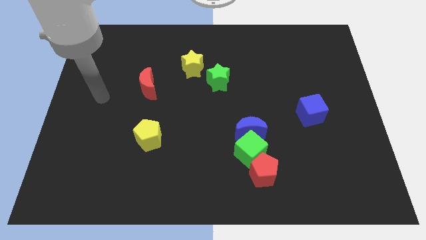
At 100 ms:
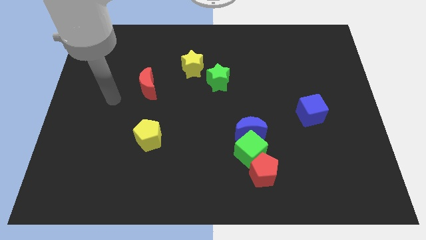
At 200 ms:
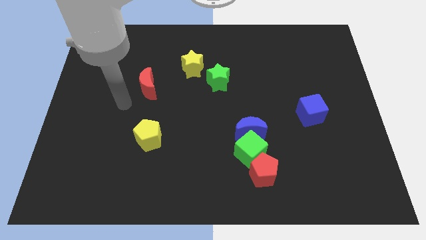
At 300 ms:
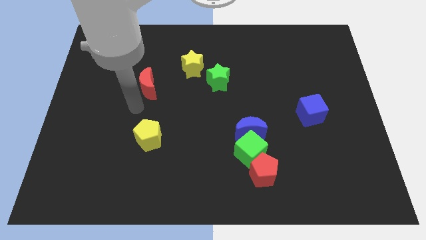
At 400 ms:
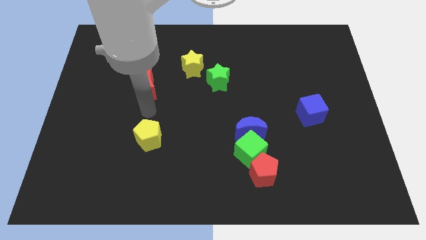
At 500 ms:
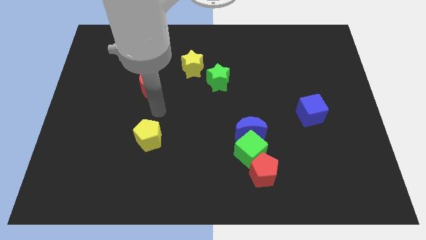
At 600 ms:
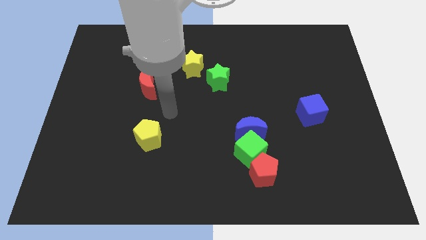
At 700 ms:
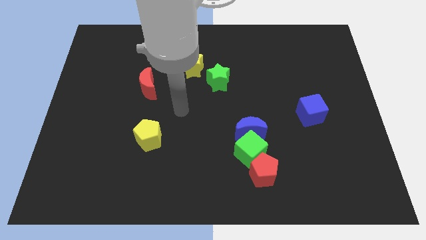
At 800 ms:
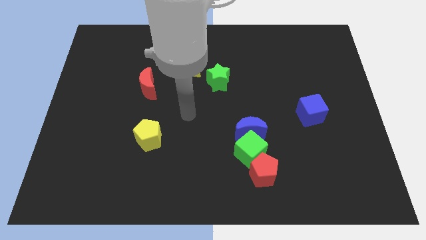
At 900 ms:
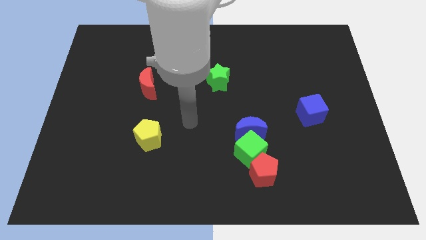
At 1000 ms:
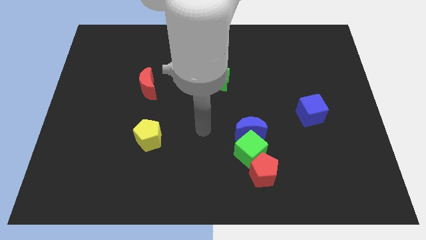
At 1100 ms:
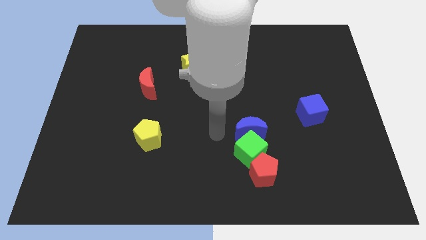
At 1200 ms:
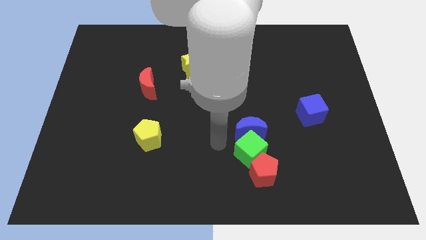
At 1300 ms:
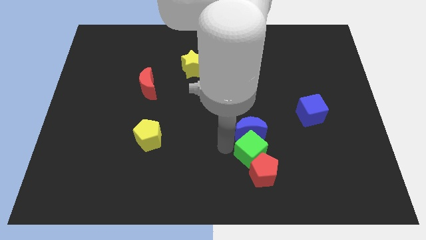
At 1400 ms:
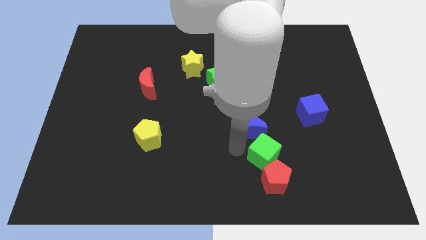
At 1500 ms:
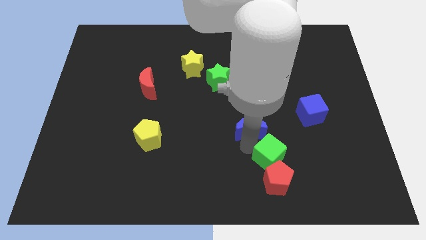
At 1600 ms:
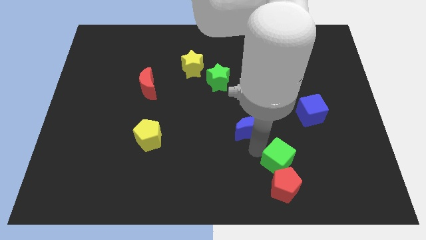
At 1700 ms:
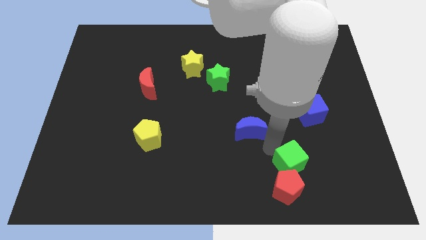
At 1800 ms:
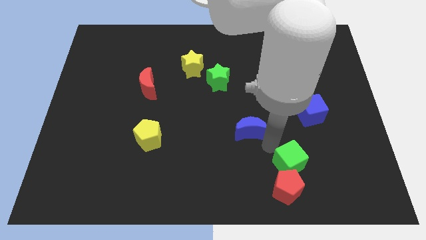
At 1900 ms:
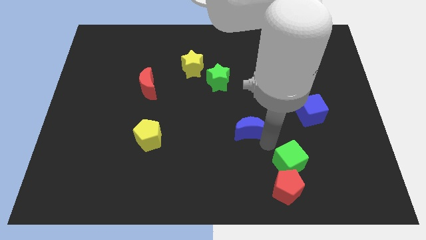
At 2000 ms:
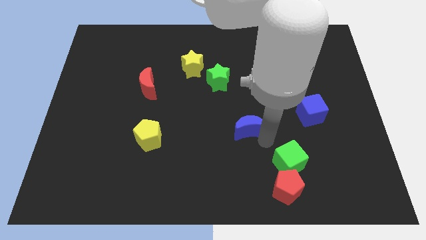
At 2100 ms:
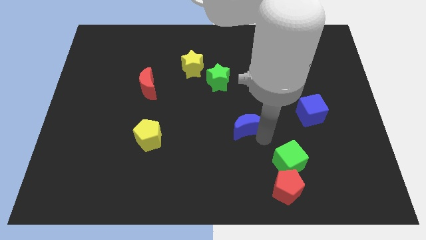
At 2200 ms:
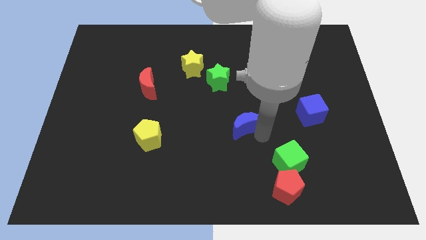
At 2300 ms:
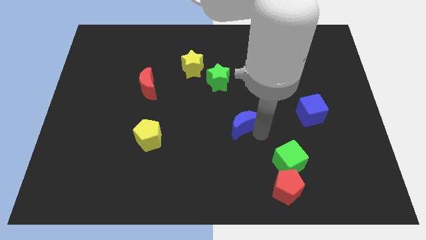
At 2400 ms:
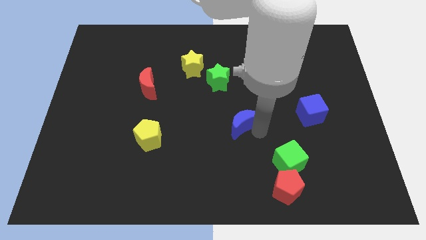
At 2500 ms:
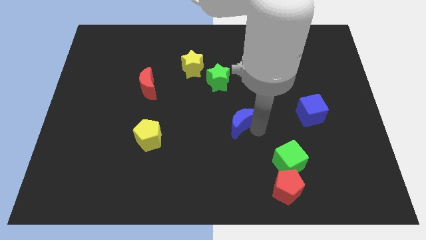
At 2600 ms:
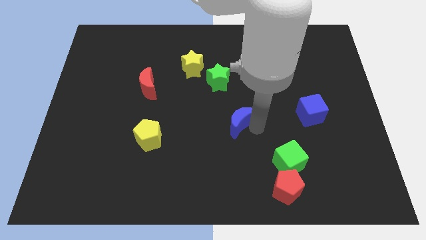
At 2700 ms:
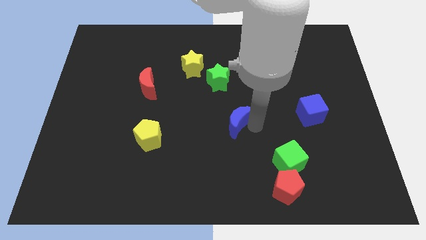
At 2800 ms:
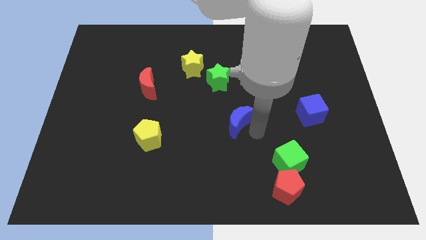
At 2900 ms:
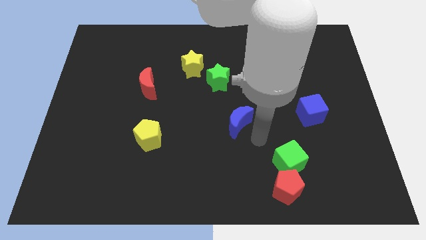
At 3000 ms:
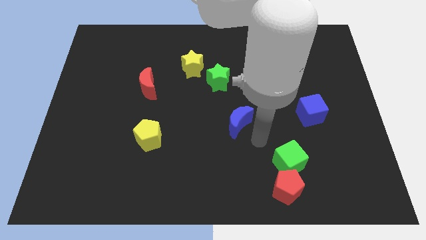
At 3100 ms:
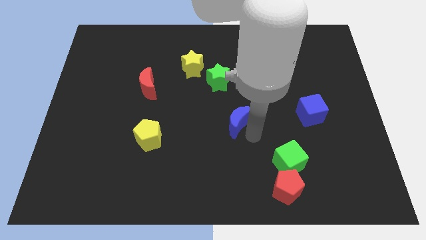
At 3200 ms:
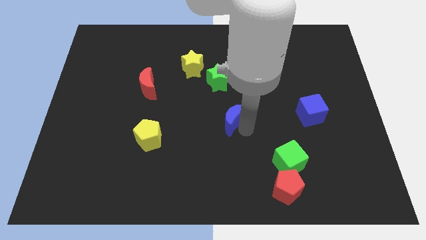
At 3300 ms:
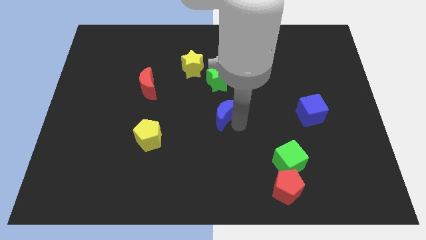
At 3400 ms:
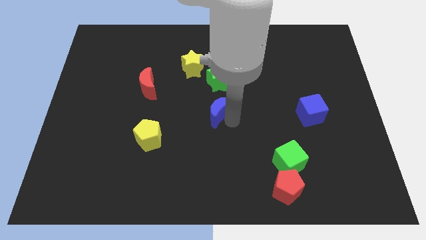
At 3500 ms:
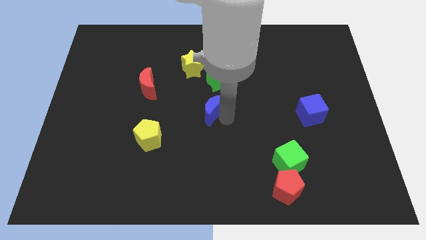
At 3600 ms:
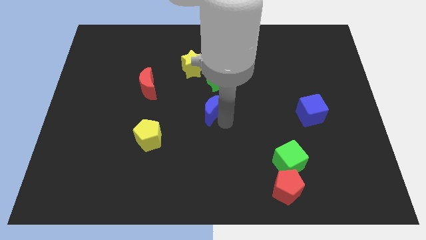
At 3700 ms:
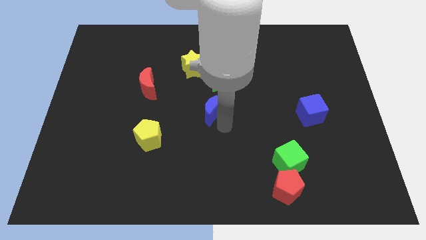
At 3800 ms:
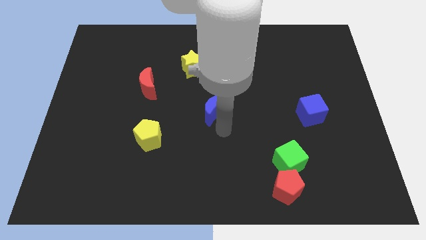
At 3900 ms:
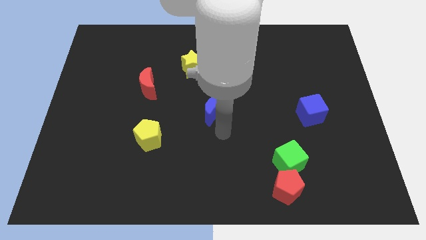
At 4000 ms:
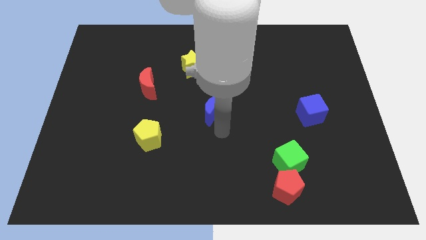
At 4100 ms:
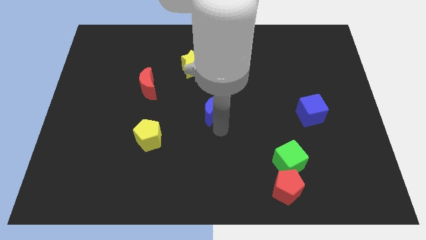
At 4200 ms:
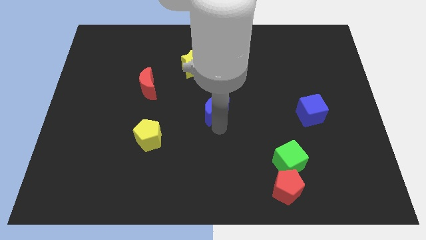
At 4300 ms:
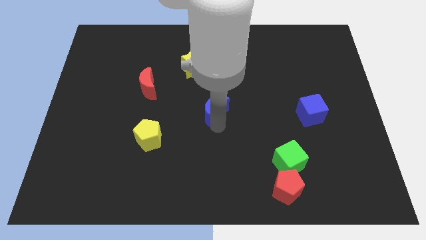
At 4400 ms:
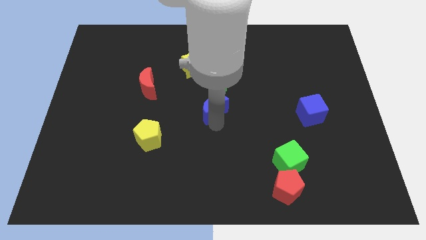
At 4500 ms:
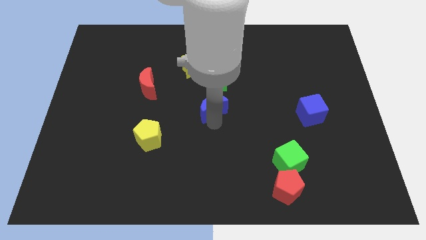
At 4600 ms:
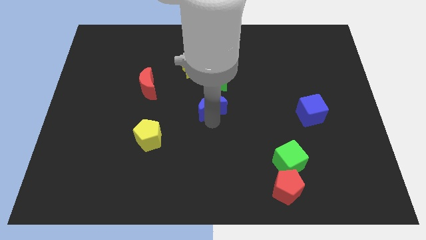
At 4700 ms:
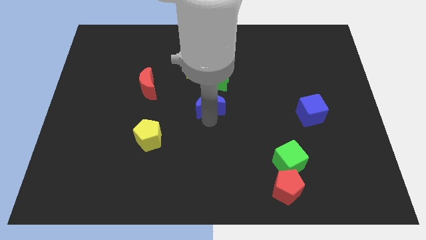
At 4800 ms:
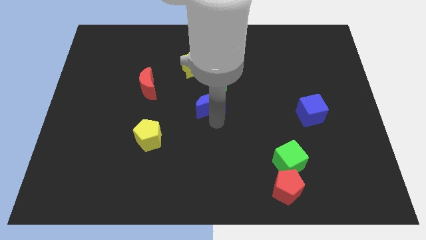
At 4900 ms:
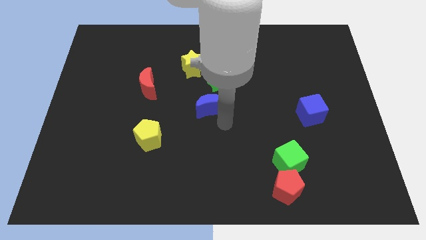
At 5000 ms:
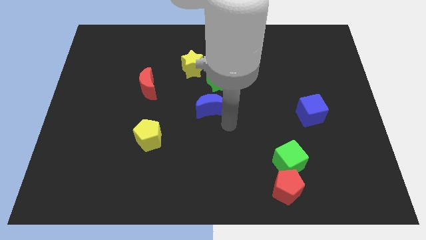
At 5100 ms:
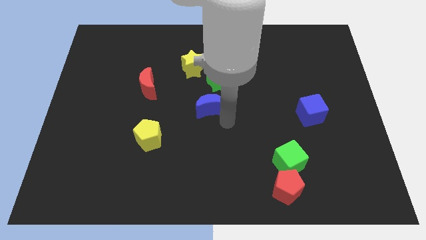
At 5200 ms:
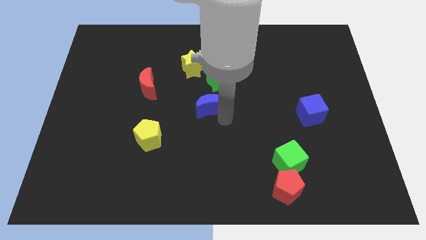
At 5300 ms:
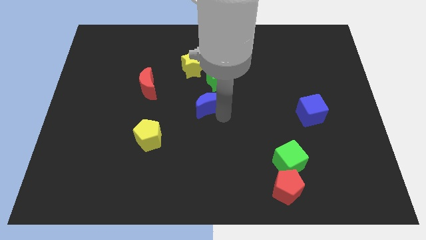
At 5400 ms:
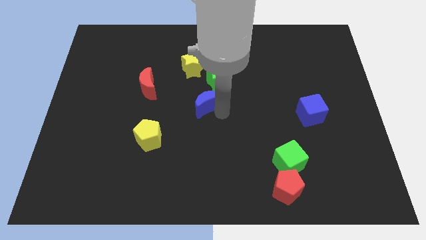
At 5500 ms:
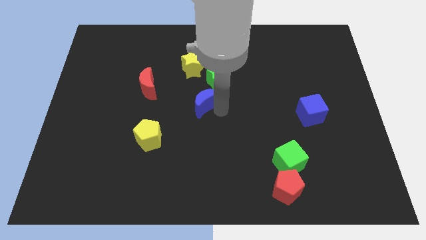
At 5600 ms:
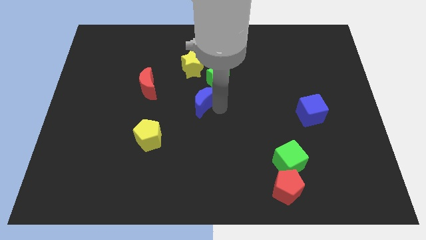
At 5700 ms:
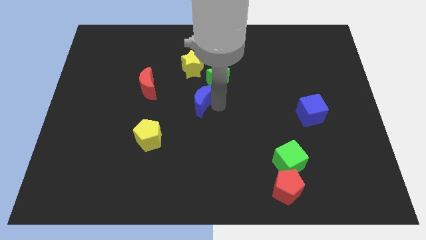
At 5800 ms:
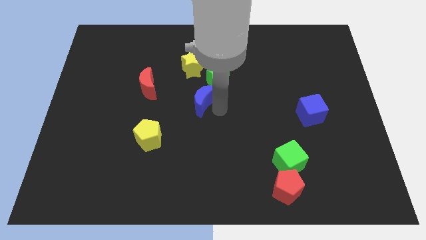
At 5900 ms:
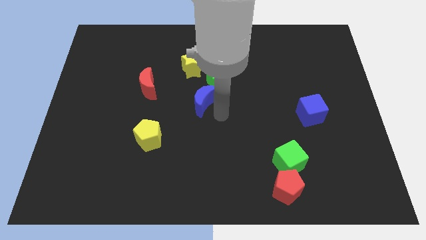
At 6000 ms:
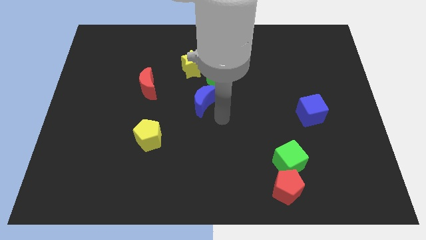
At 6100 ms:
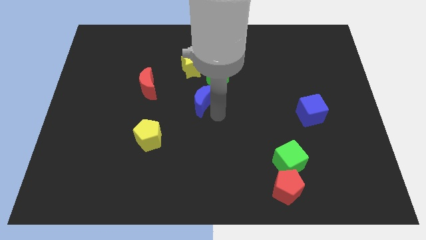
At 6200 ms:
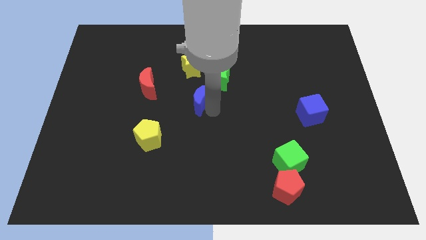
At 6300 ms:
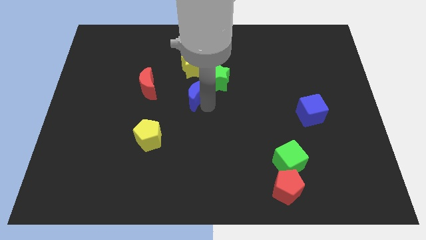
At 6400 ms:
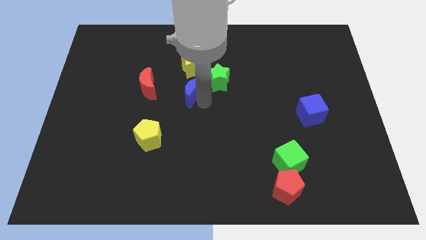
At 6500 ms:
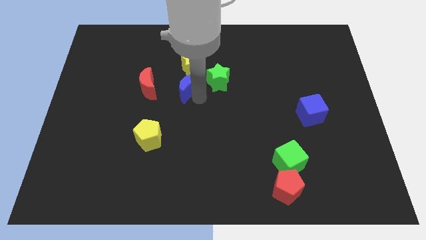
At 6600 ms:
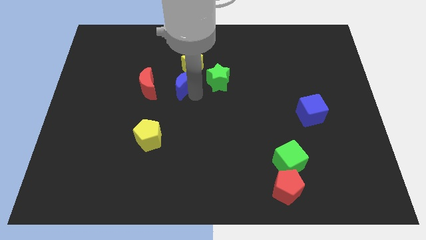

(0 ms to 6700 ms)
slide the blue moon up and to the left

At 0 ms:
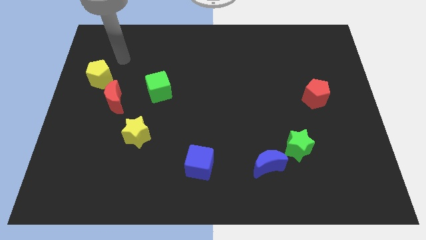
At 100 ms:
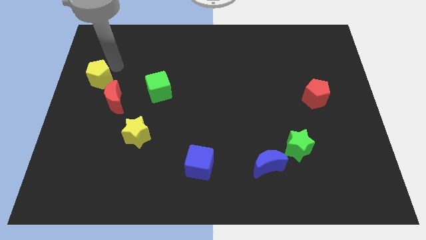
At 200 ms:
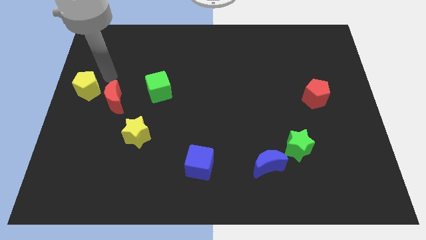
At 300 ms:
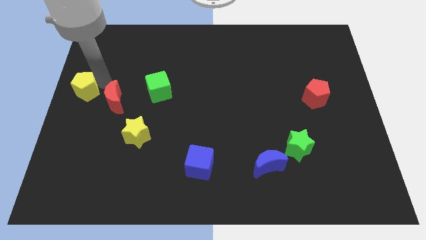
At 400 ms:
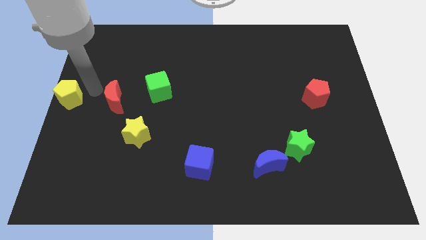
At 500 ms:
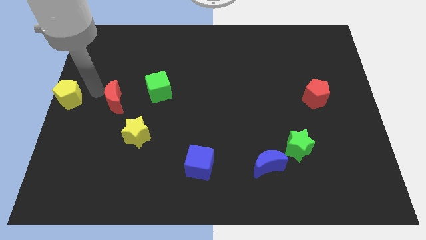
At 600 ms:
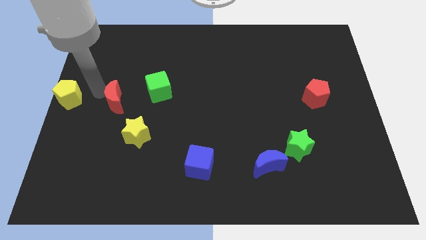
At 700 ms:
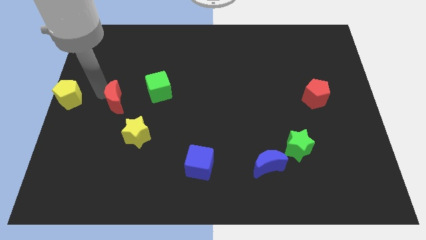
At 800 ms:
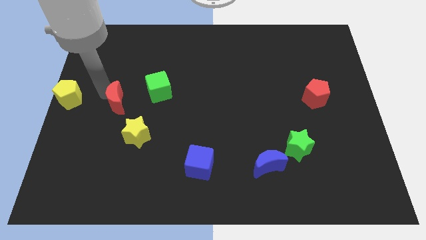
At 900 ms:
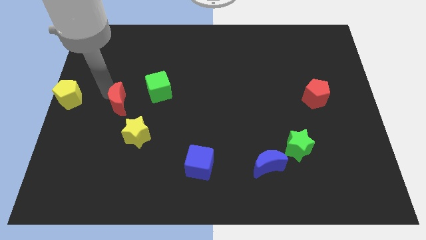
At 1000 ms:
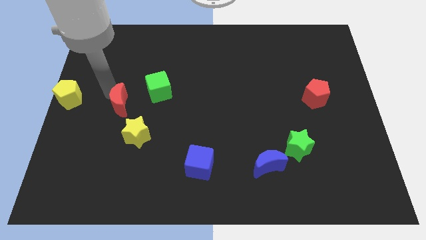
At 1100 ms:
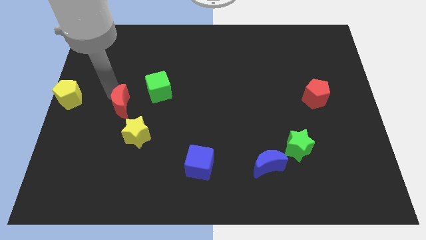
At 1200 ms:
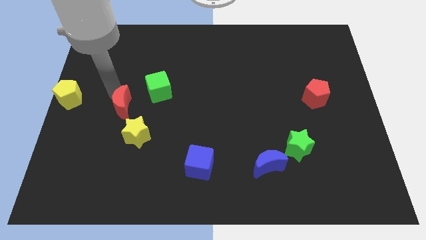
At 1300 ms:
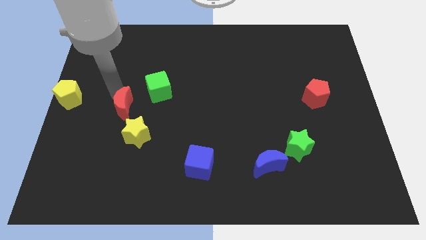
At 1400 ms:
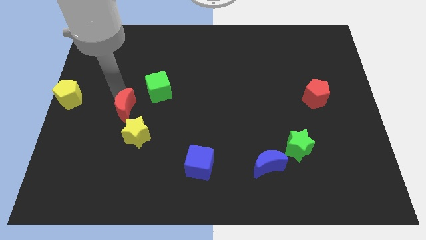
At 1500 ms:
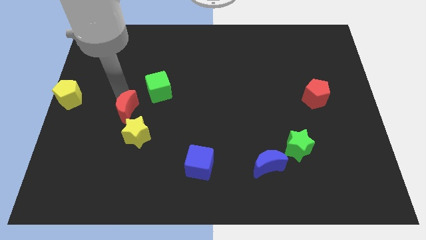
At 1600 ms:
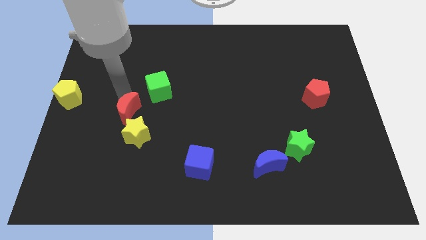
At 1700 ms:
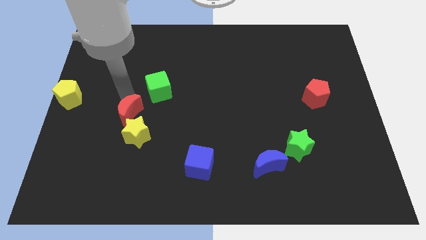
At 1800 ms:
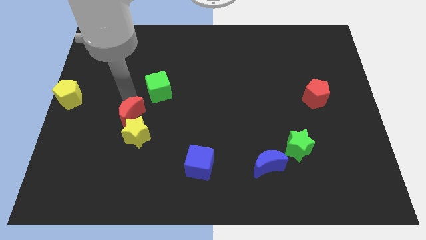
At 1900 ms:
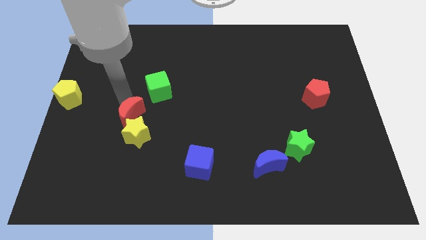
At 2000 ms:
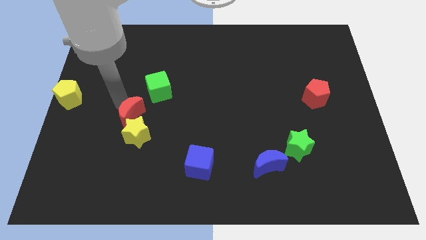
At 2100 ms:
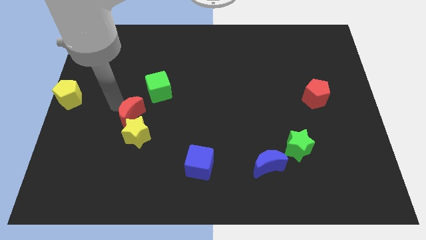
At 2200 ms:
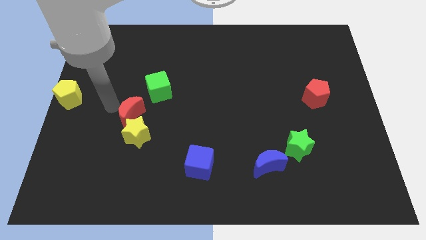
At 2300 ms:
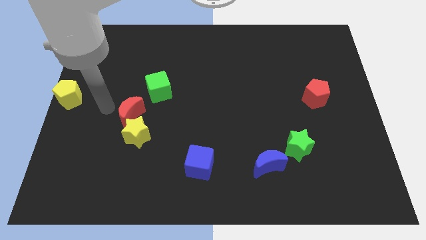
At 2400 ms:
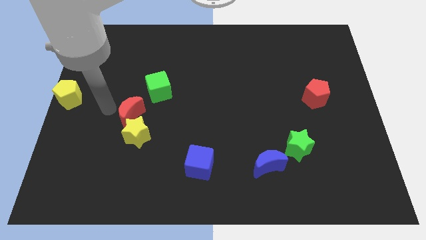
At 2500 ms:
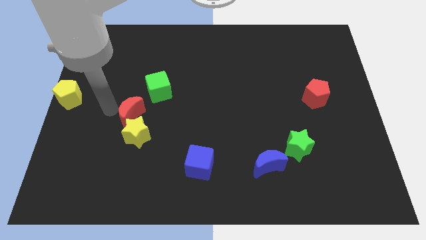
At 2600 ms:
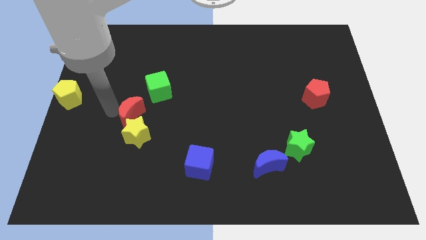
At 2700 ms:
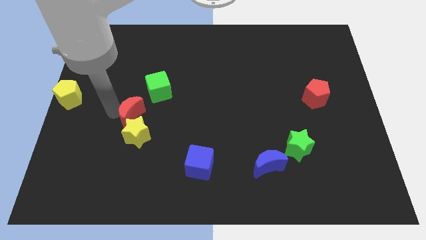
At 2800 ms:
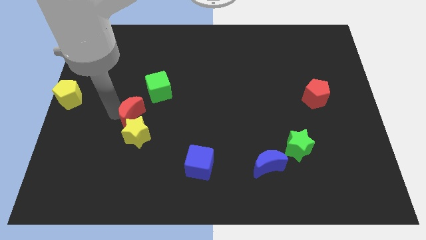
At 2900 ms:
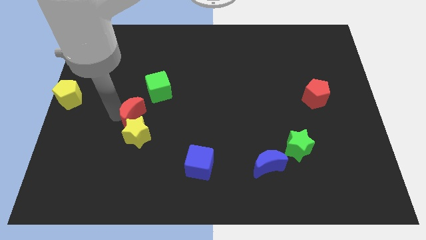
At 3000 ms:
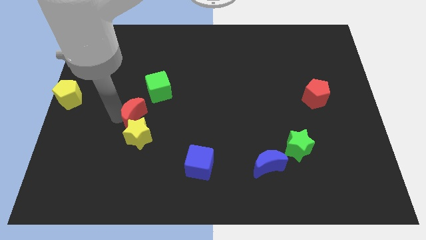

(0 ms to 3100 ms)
move the red moon slightly downwards and right
